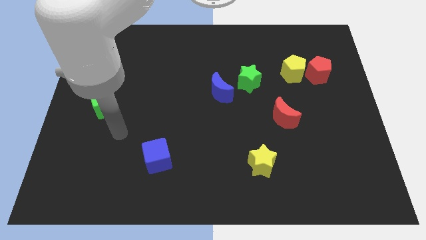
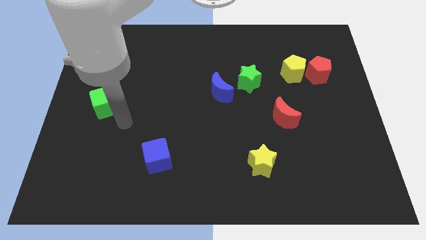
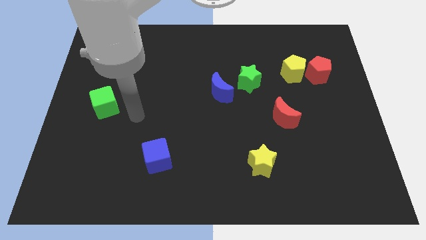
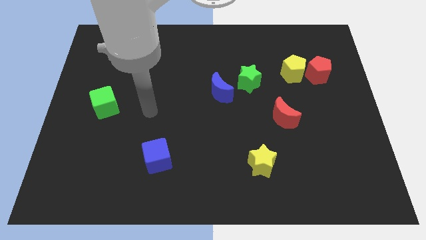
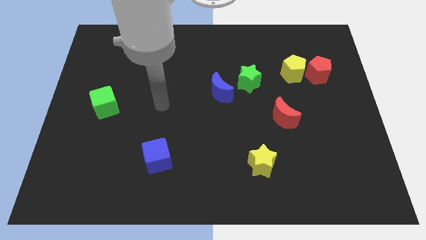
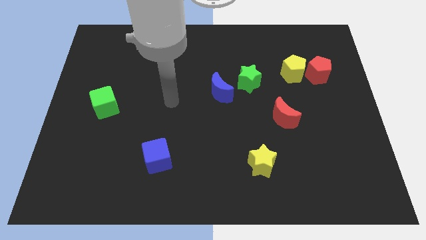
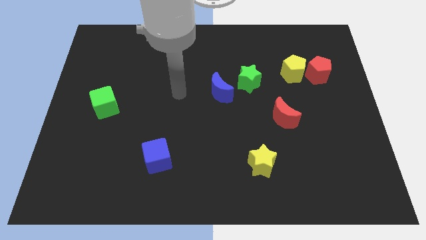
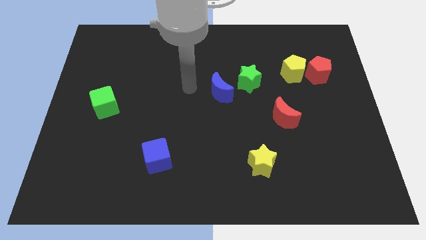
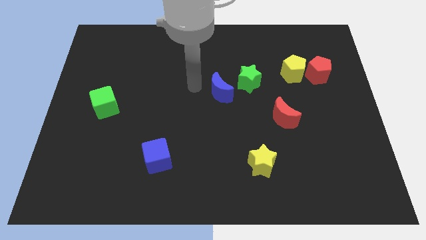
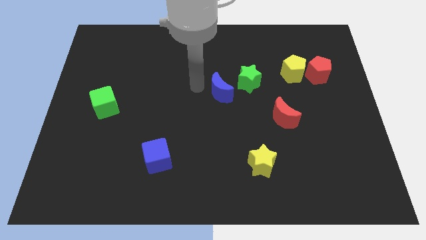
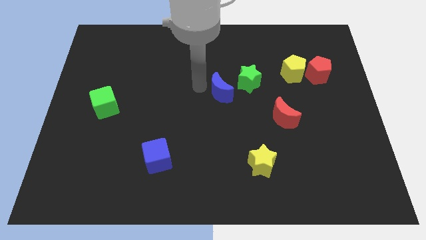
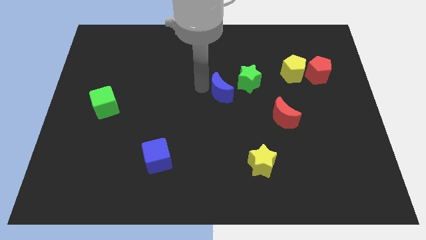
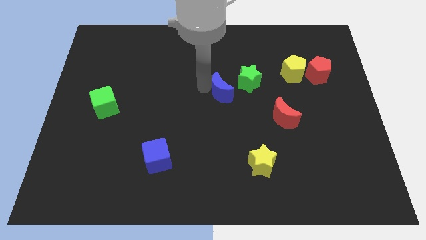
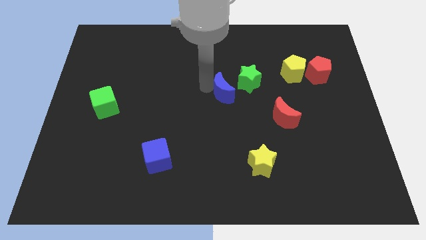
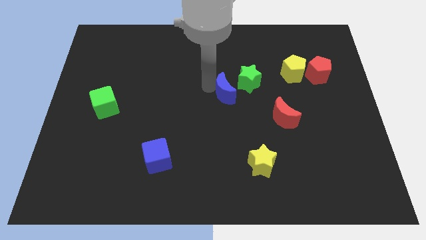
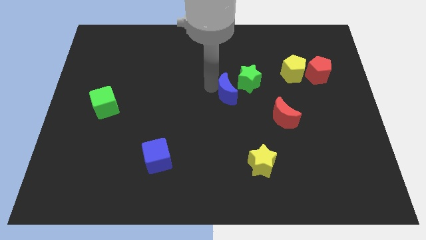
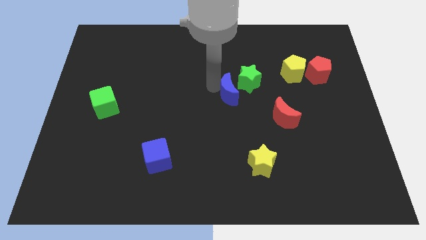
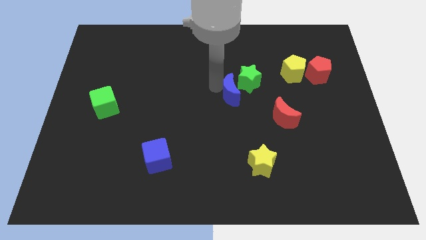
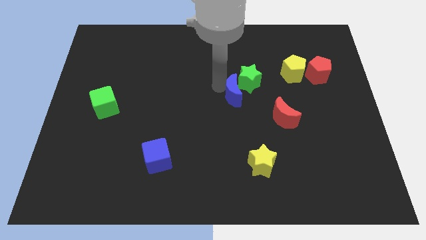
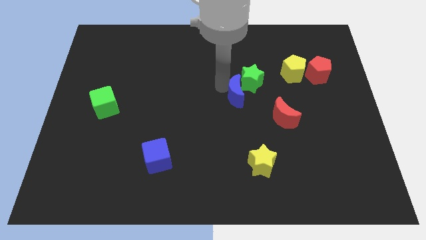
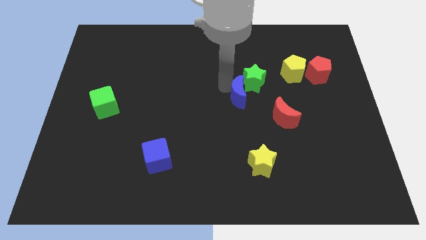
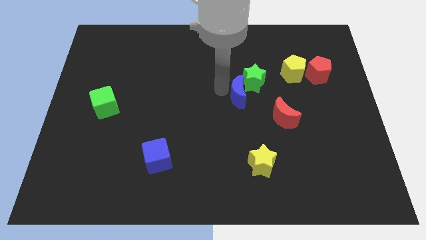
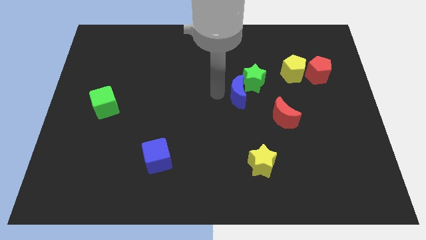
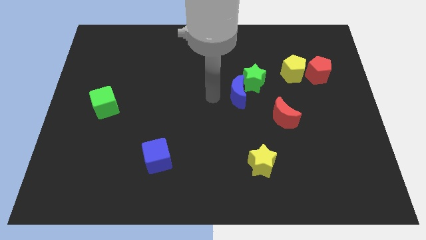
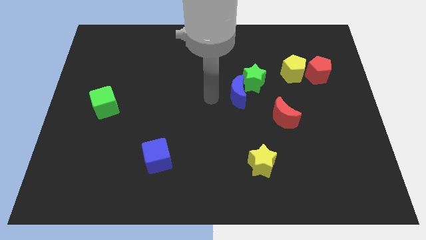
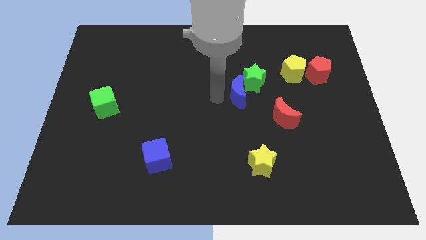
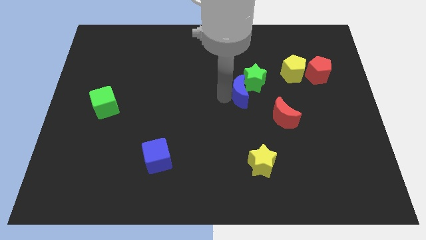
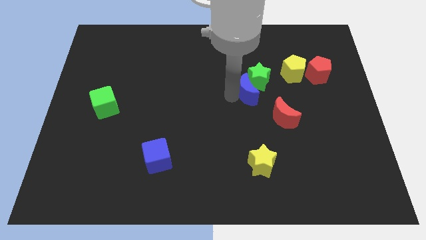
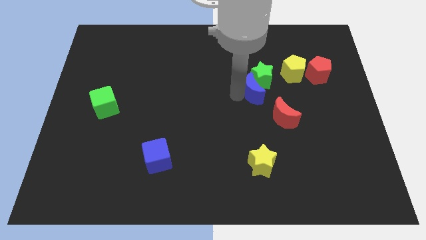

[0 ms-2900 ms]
slightly slide the blue moon right

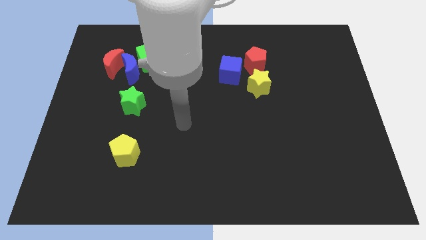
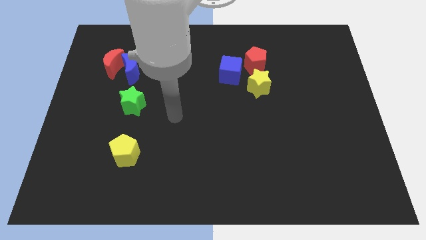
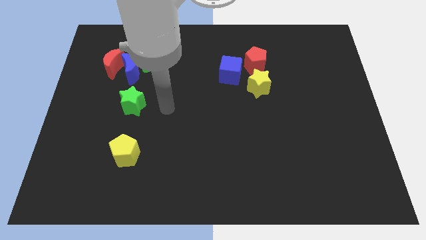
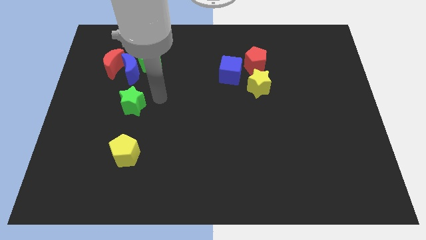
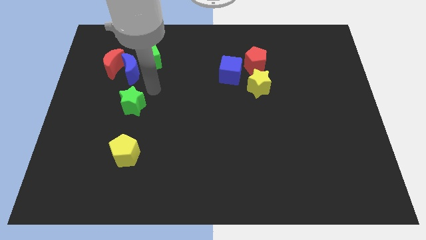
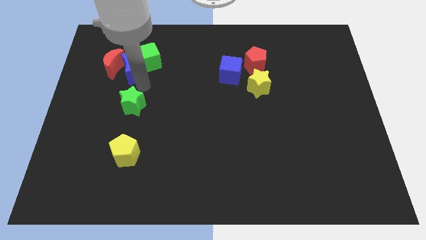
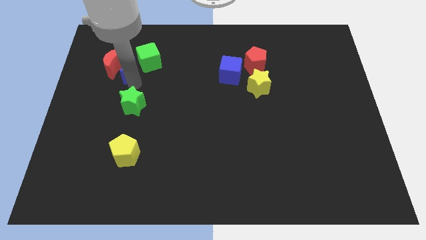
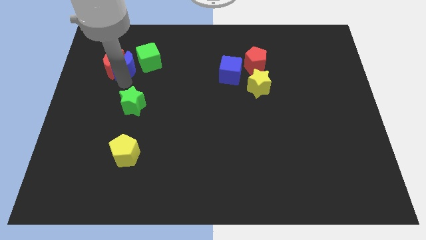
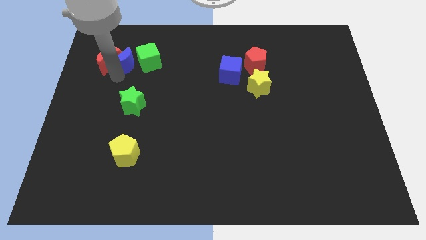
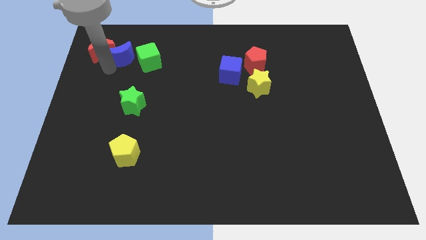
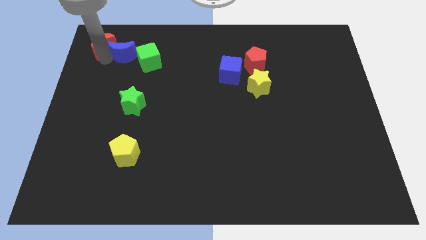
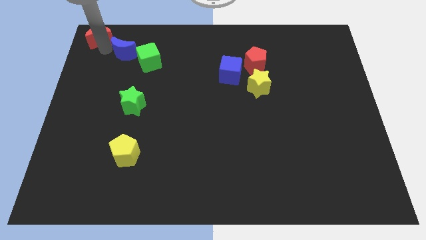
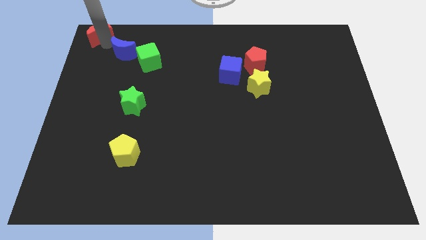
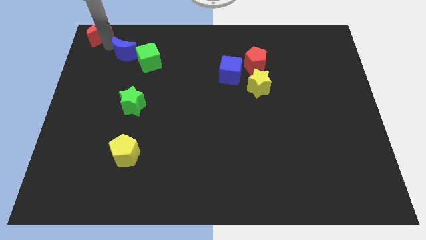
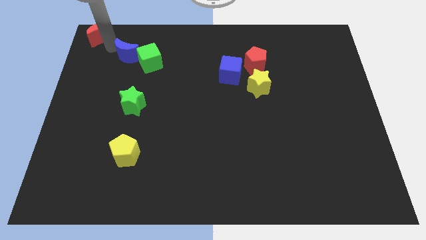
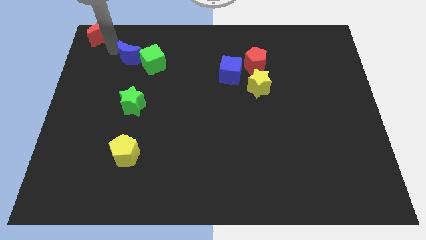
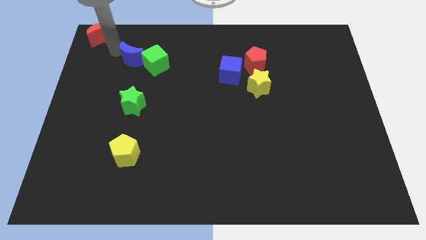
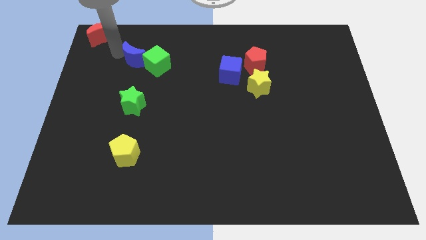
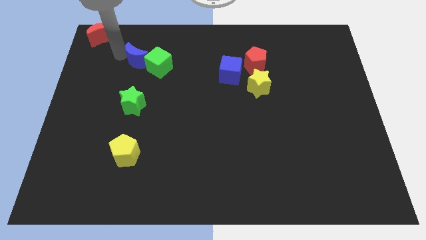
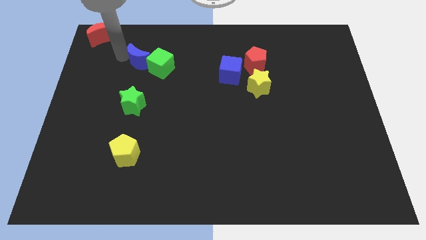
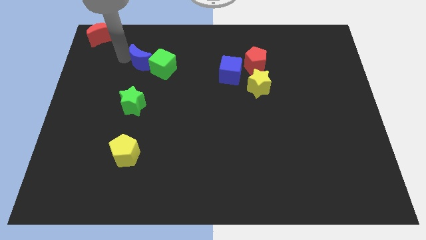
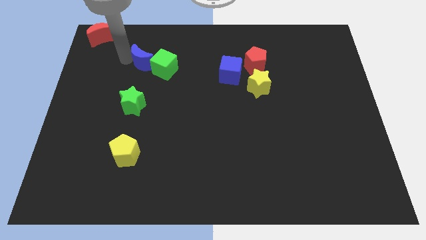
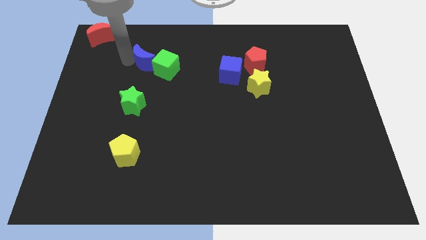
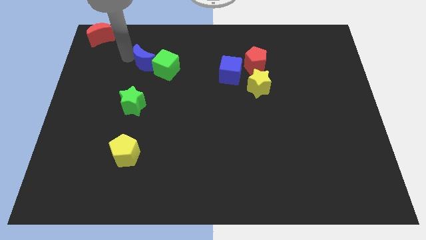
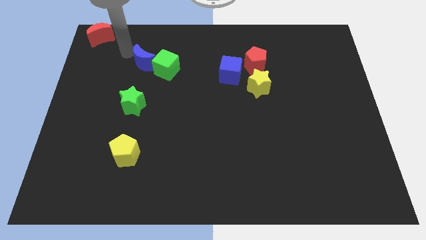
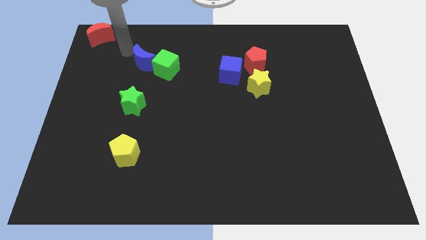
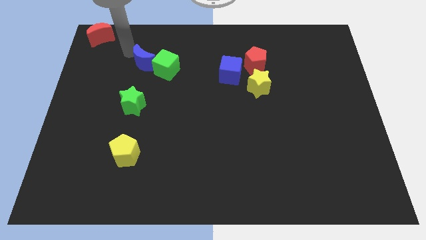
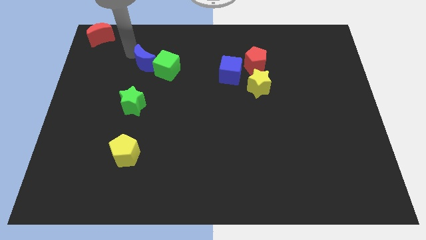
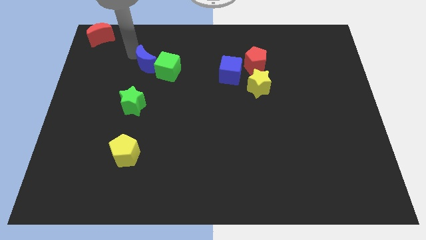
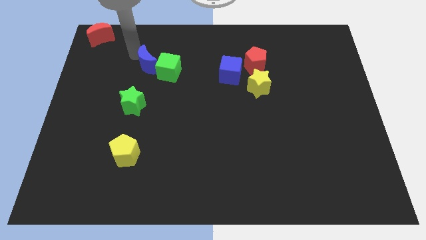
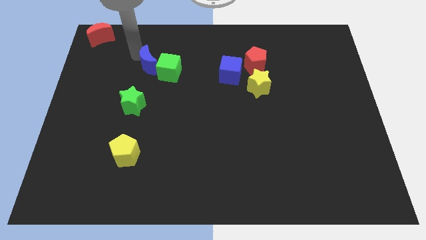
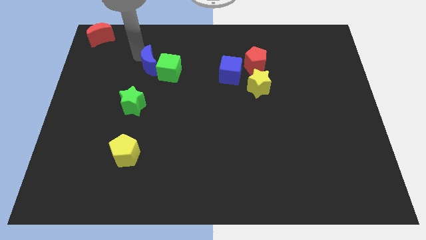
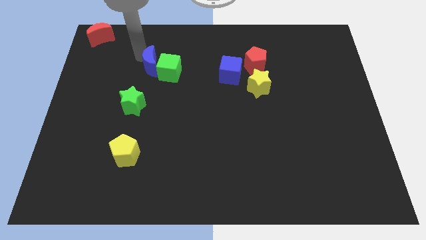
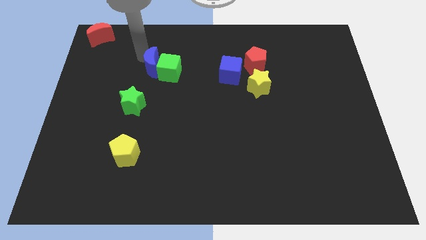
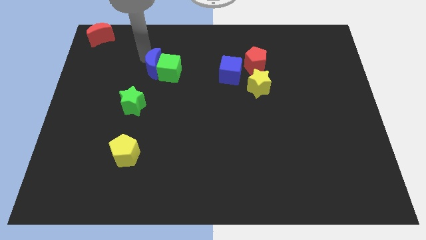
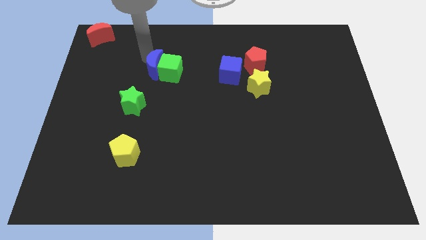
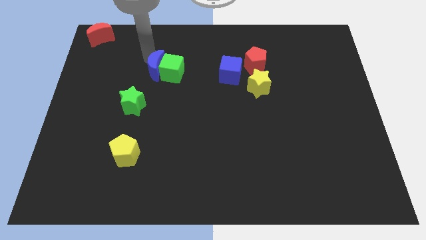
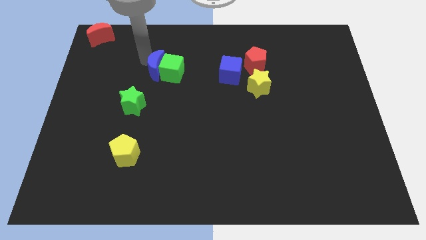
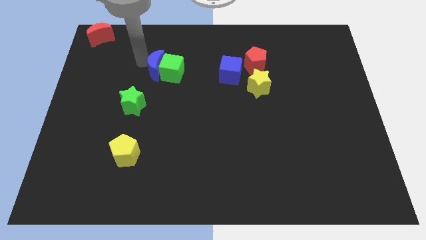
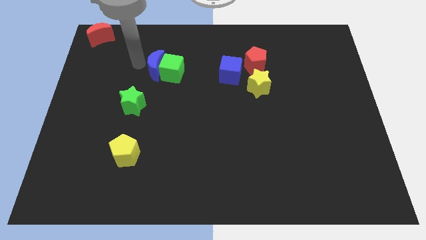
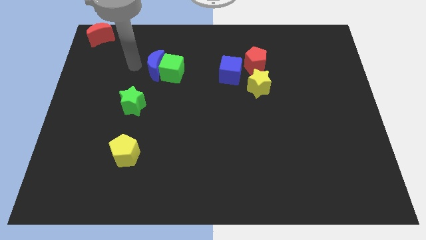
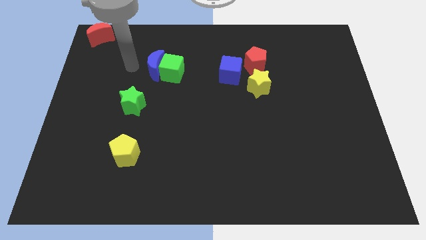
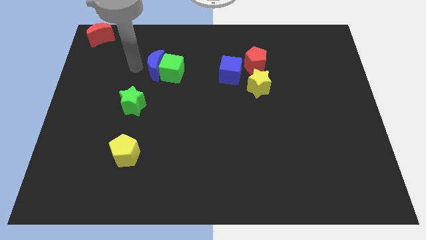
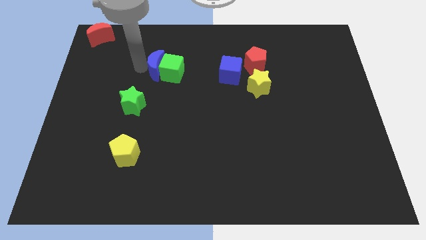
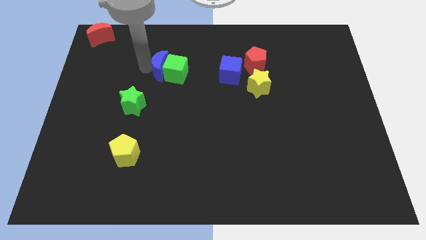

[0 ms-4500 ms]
slightly move the blue moon to the right

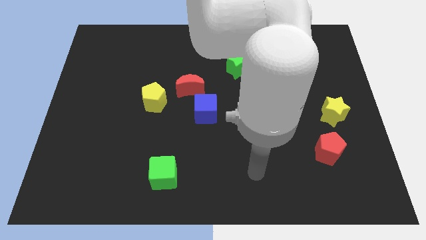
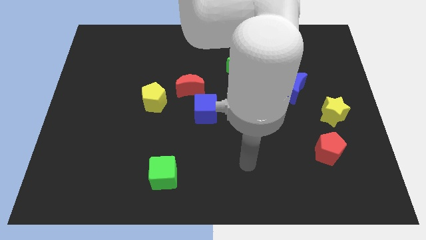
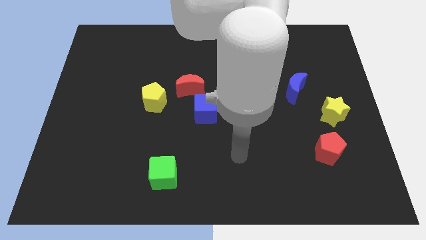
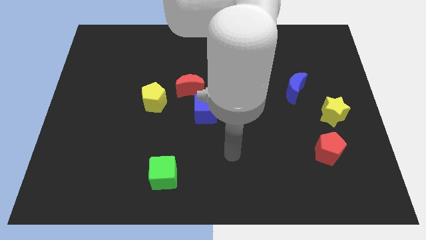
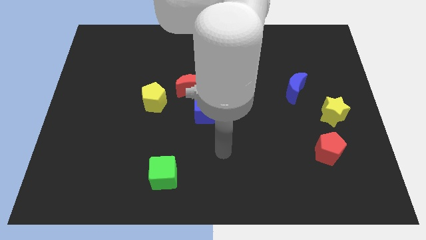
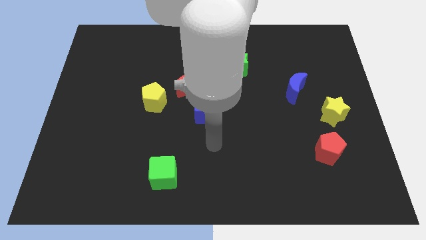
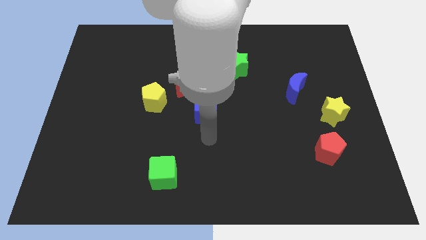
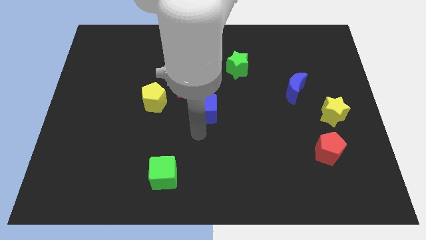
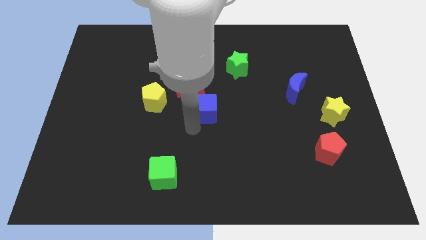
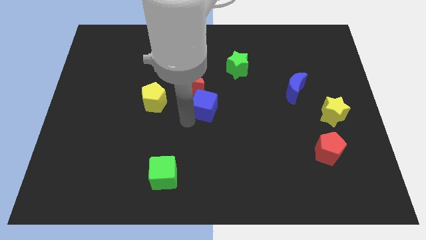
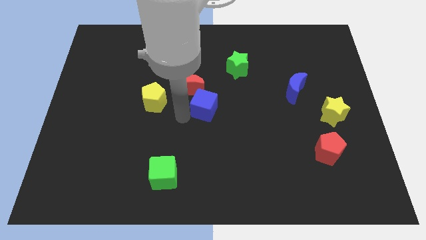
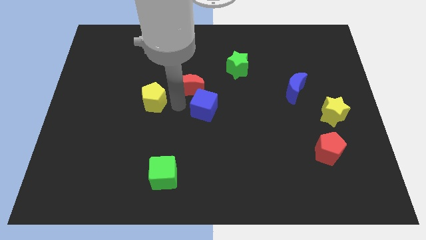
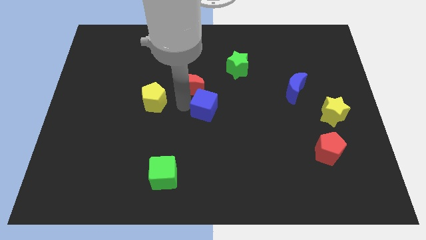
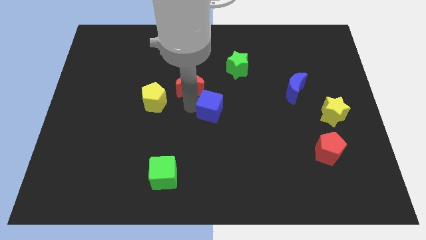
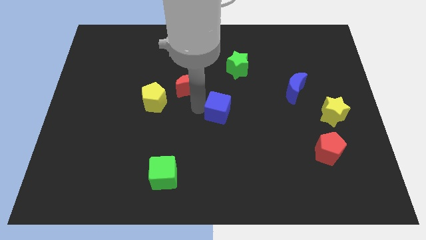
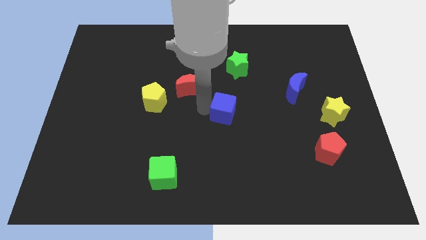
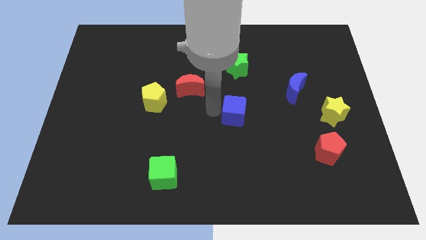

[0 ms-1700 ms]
slide the blue cube a little right
